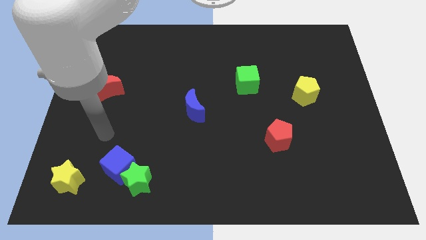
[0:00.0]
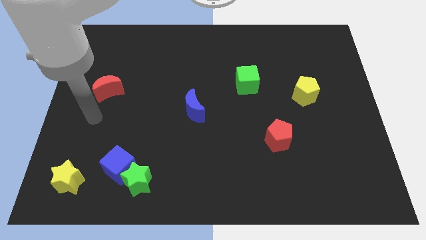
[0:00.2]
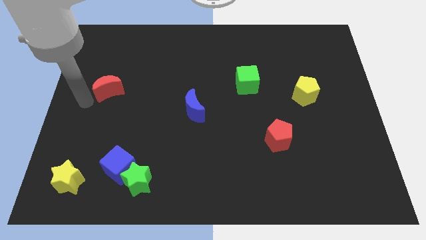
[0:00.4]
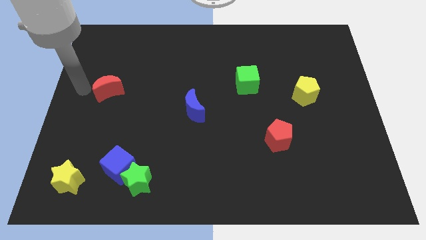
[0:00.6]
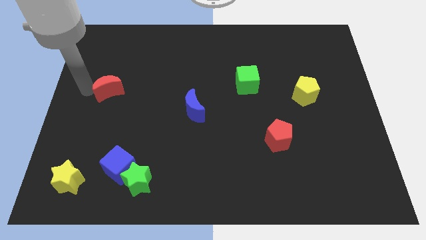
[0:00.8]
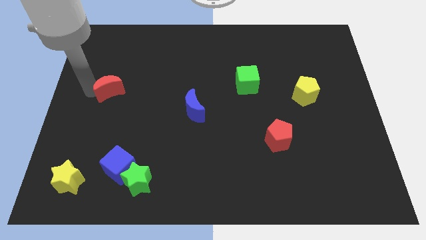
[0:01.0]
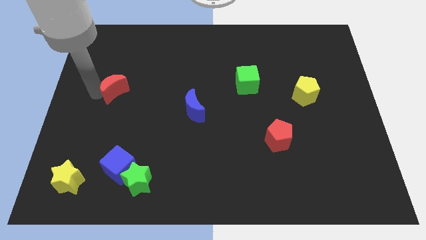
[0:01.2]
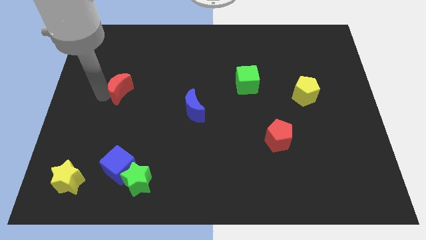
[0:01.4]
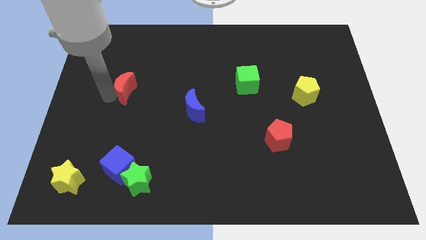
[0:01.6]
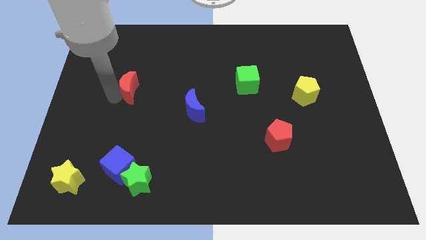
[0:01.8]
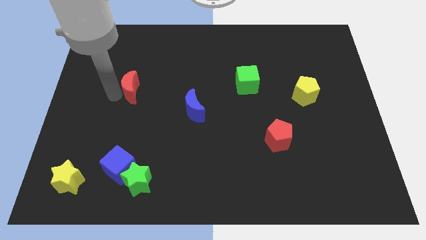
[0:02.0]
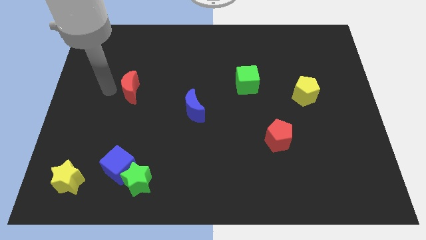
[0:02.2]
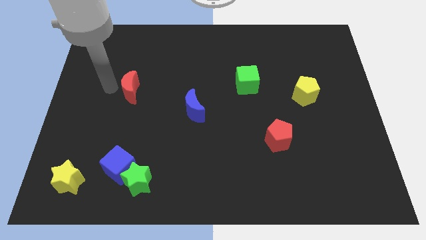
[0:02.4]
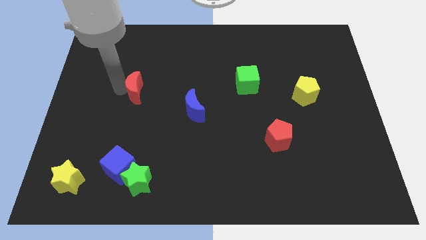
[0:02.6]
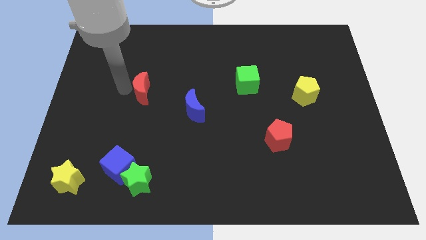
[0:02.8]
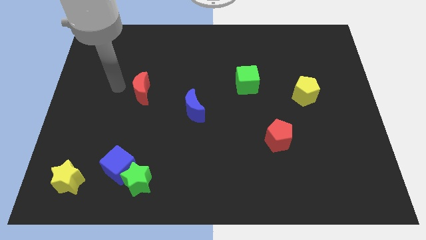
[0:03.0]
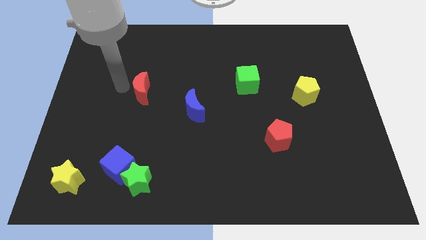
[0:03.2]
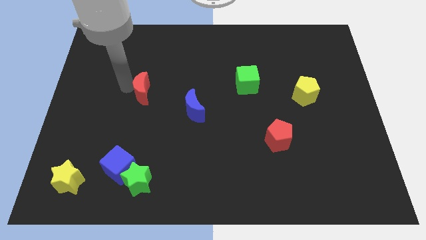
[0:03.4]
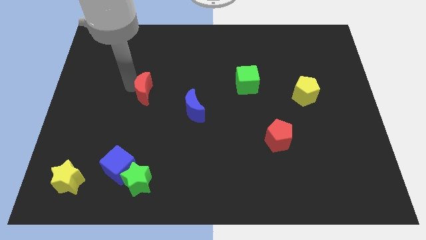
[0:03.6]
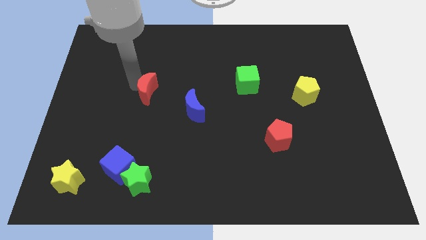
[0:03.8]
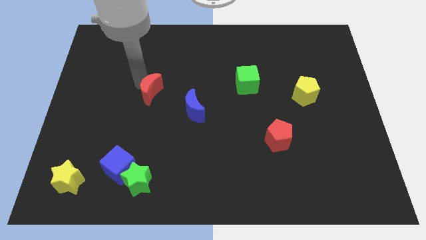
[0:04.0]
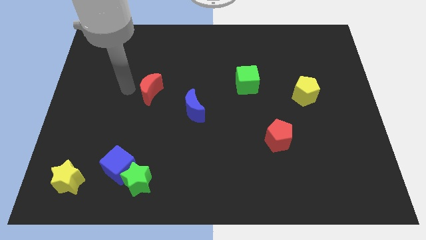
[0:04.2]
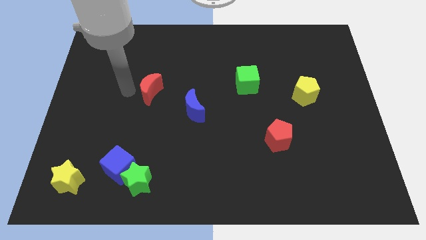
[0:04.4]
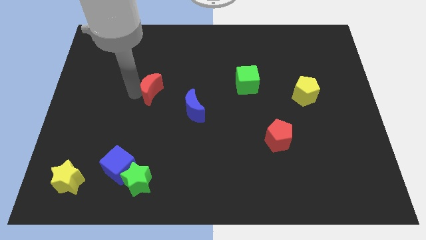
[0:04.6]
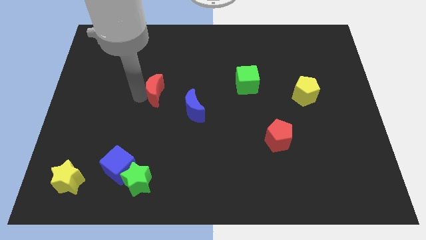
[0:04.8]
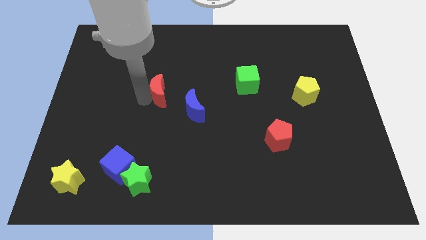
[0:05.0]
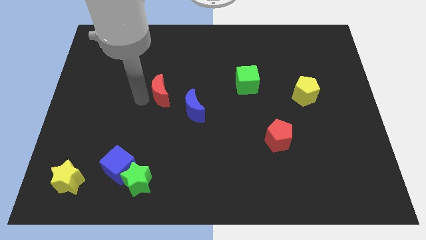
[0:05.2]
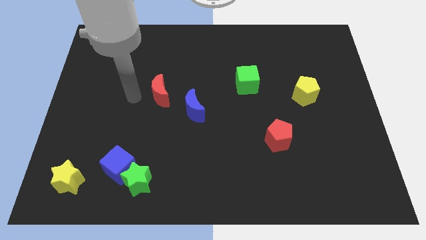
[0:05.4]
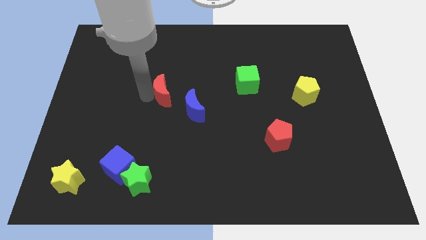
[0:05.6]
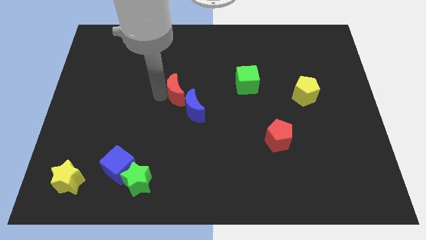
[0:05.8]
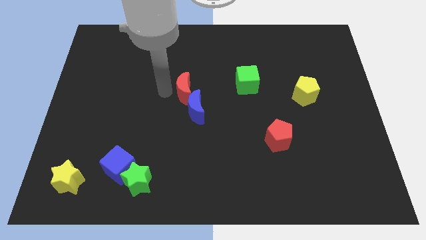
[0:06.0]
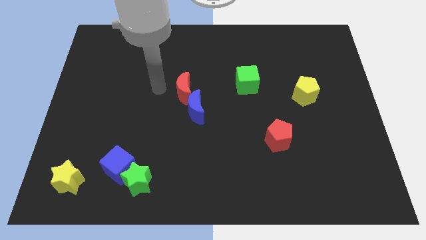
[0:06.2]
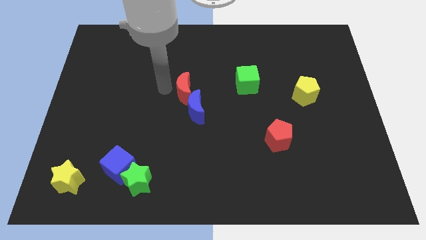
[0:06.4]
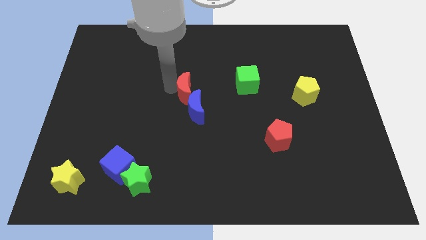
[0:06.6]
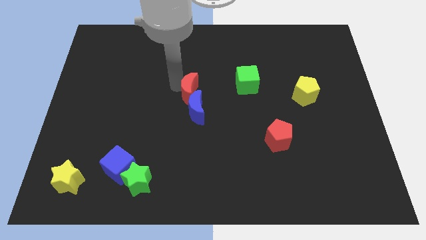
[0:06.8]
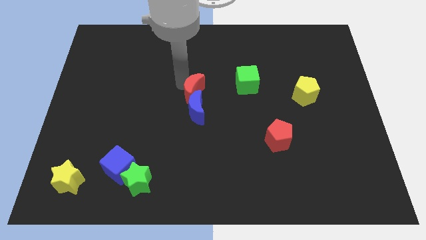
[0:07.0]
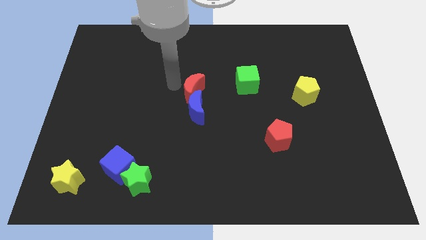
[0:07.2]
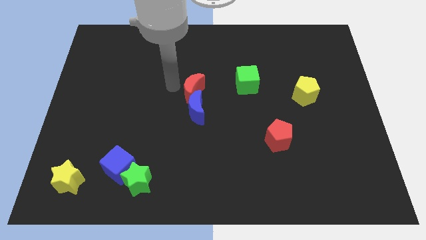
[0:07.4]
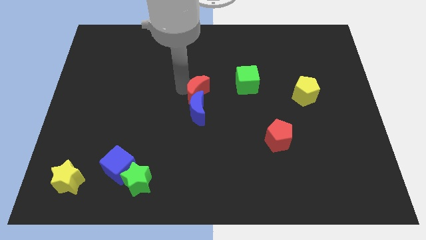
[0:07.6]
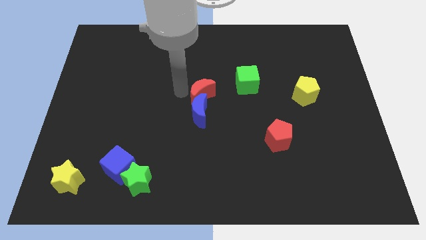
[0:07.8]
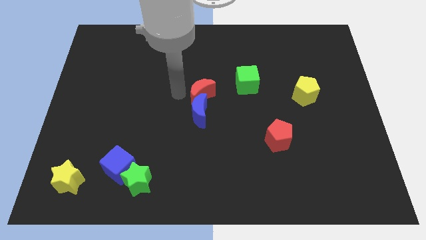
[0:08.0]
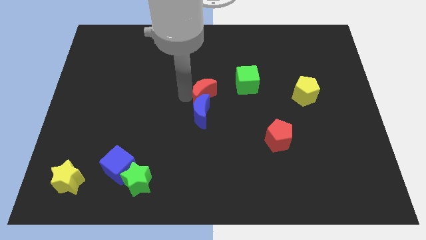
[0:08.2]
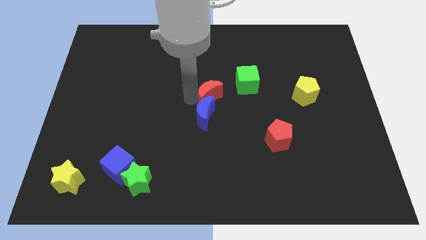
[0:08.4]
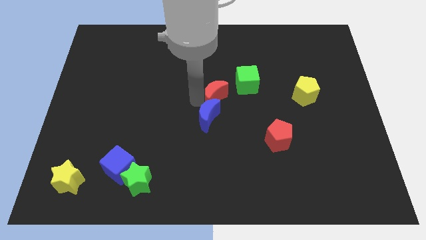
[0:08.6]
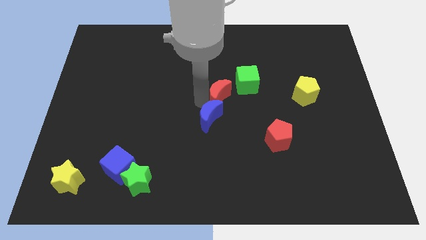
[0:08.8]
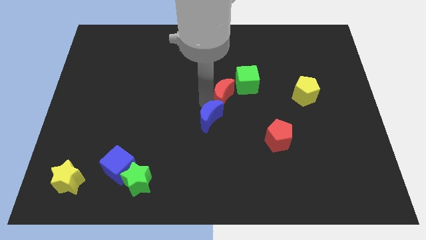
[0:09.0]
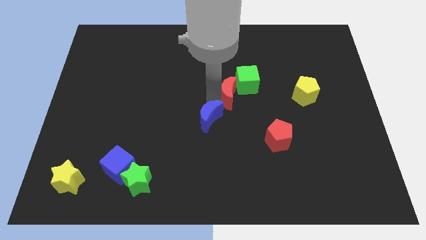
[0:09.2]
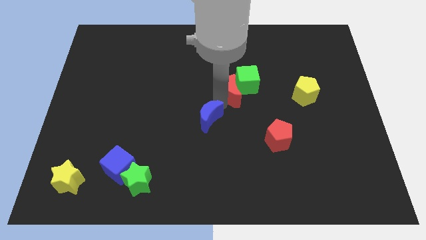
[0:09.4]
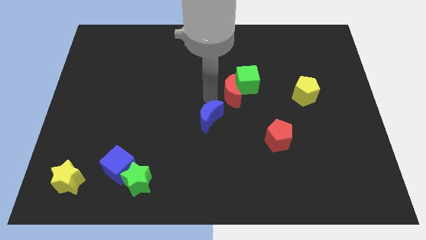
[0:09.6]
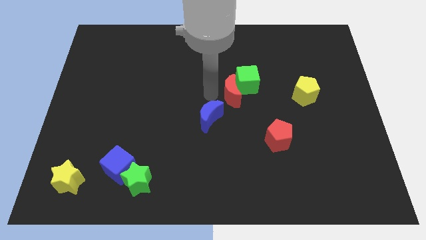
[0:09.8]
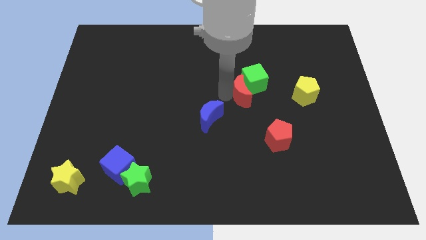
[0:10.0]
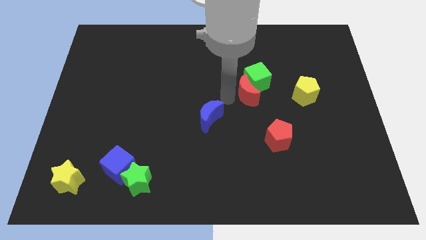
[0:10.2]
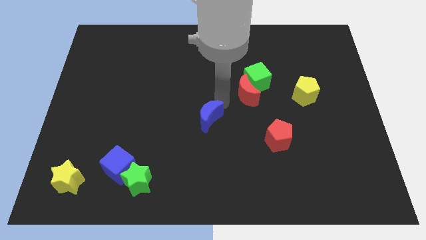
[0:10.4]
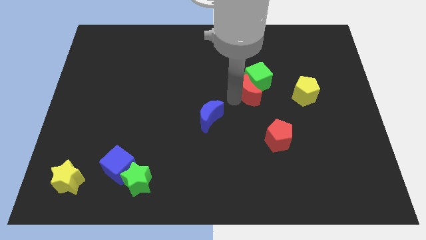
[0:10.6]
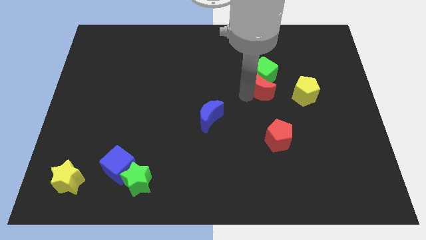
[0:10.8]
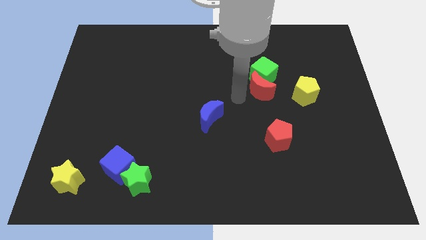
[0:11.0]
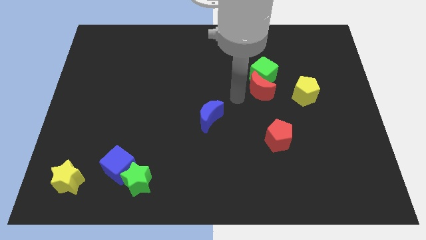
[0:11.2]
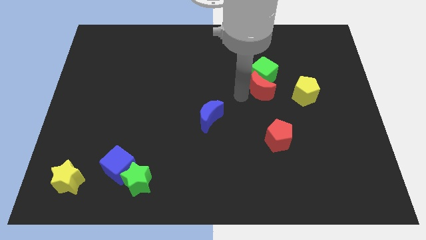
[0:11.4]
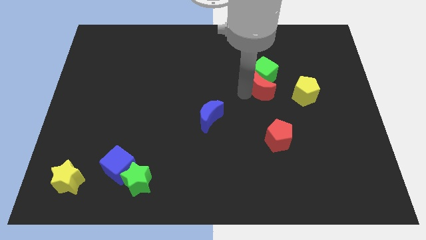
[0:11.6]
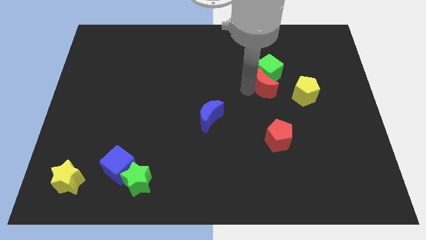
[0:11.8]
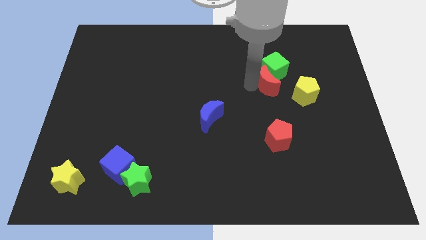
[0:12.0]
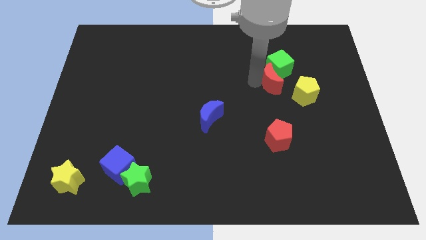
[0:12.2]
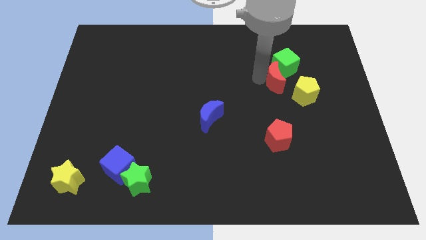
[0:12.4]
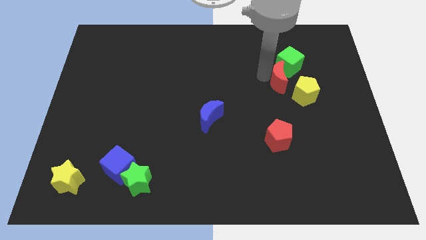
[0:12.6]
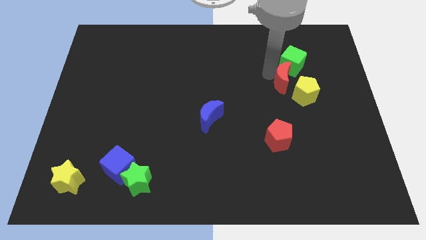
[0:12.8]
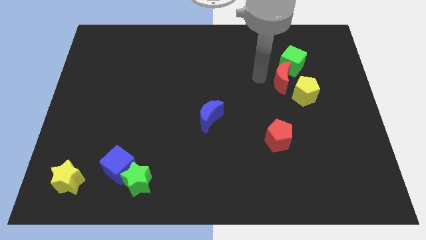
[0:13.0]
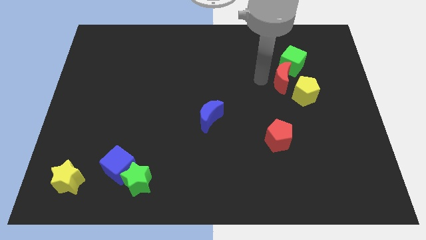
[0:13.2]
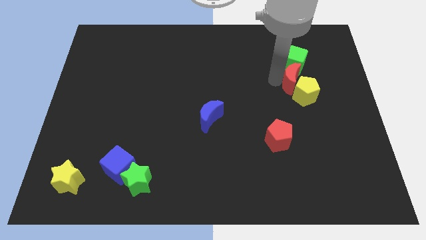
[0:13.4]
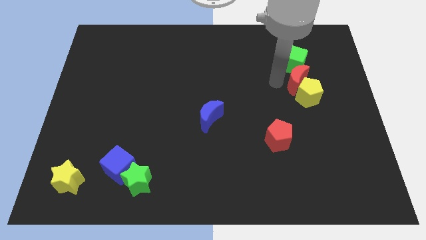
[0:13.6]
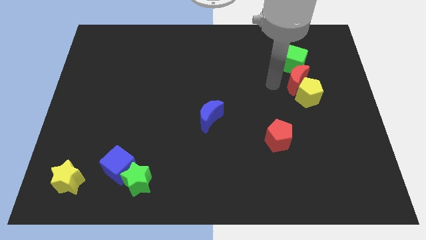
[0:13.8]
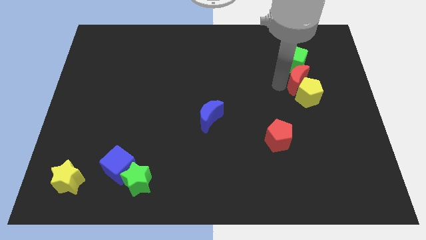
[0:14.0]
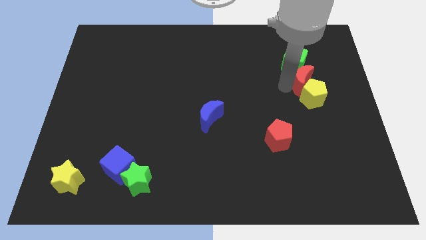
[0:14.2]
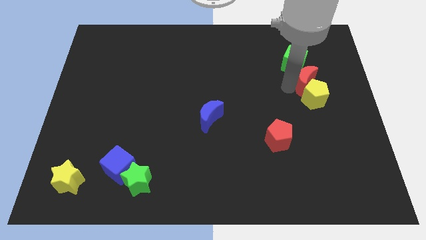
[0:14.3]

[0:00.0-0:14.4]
push the red moon to the top right side of the yellow pentagon

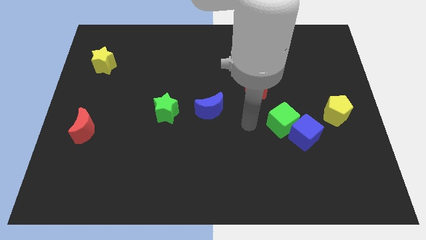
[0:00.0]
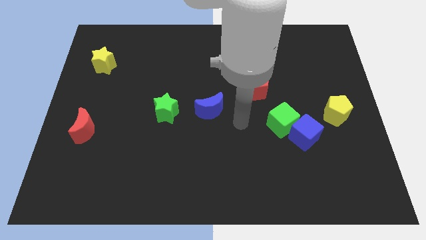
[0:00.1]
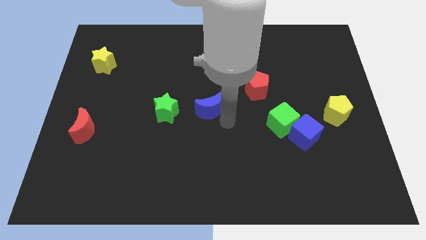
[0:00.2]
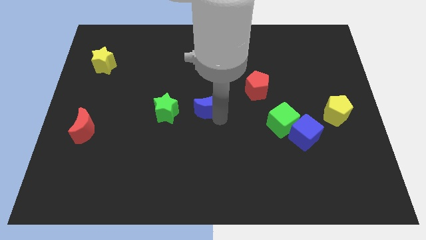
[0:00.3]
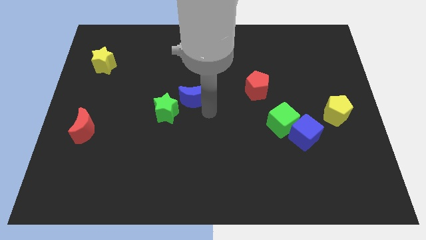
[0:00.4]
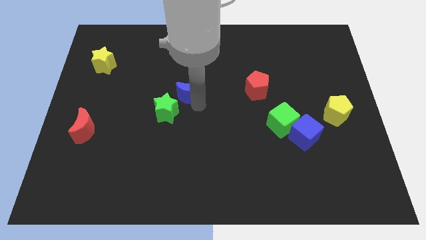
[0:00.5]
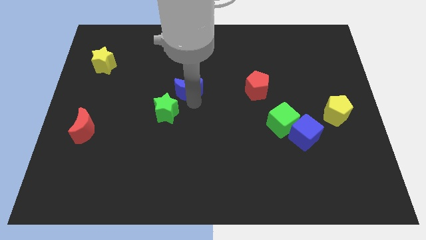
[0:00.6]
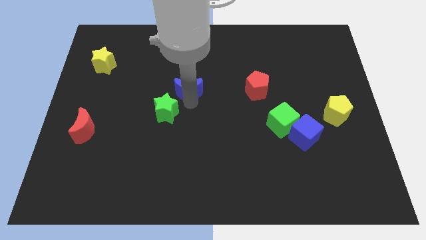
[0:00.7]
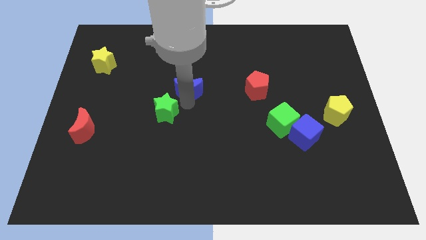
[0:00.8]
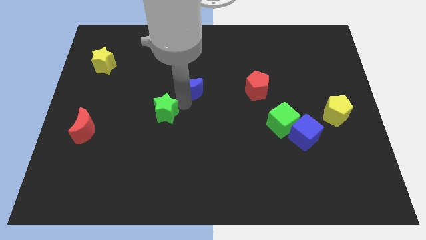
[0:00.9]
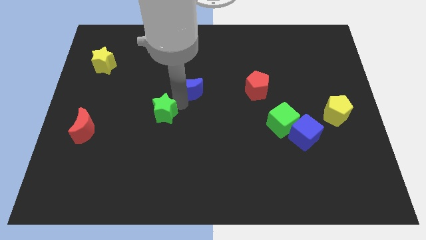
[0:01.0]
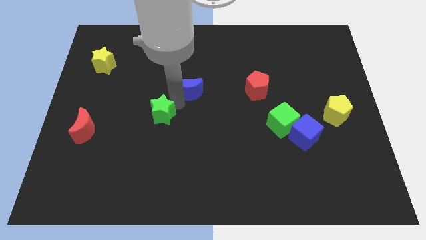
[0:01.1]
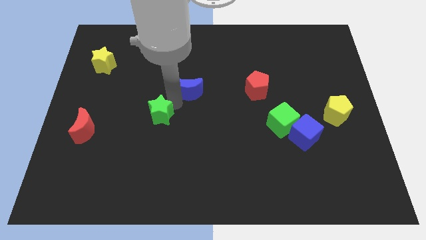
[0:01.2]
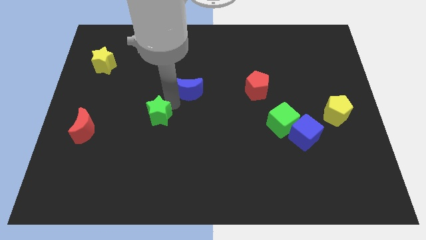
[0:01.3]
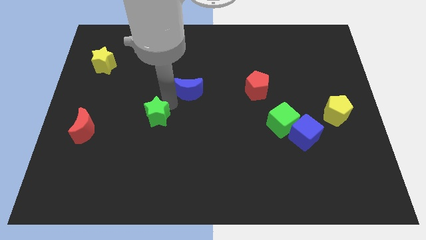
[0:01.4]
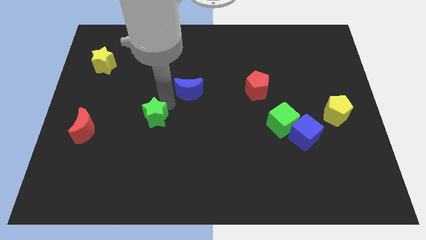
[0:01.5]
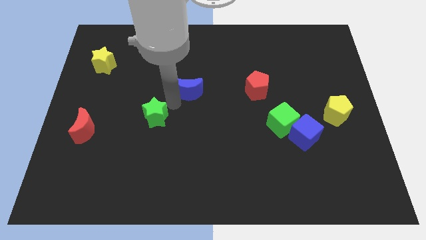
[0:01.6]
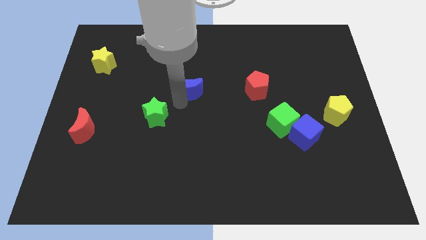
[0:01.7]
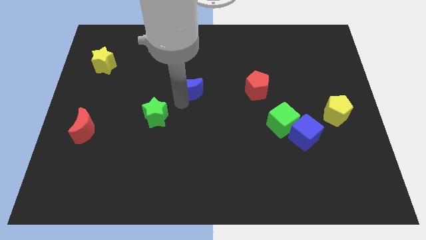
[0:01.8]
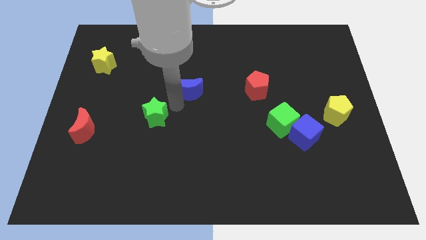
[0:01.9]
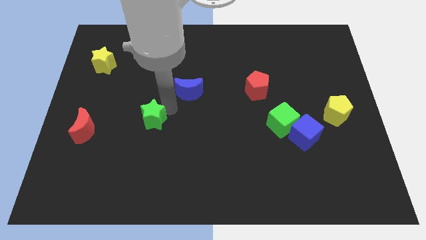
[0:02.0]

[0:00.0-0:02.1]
put the green star to the right of the red moon
